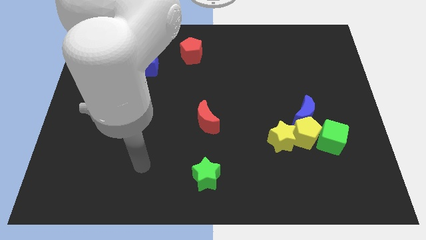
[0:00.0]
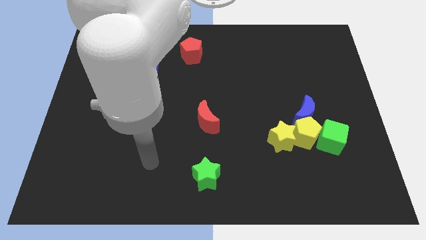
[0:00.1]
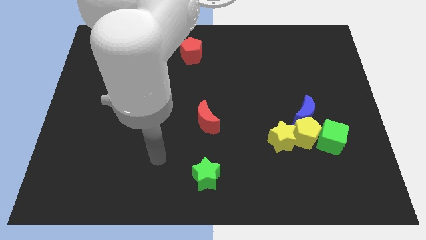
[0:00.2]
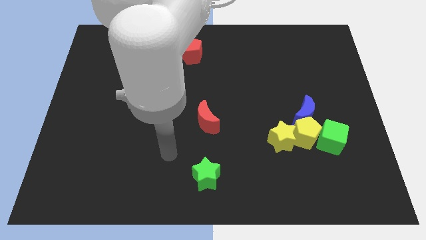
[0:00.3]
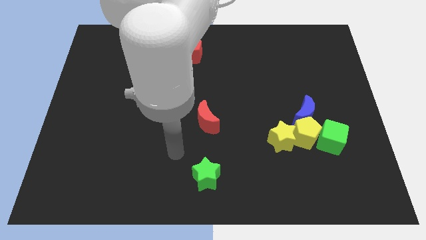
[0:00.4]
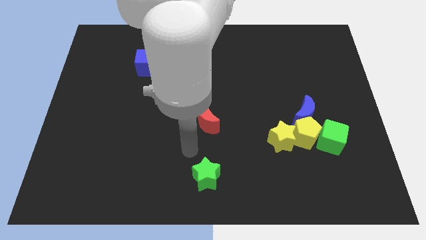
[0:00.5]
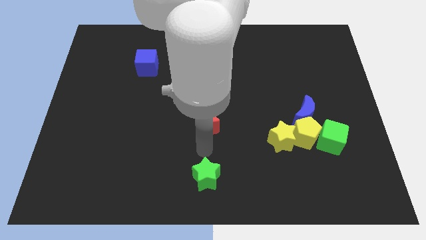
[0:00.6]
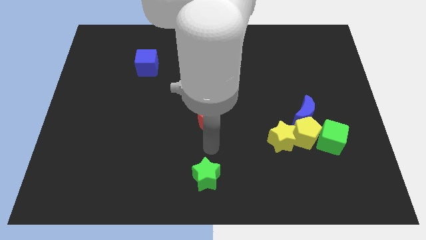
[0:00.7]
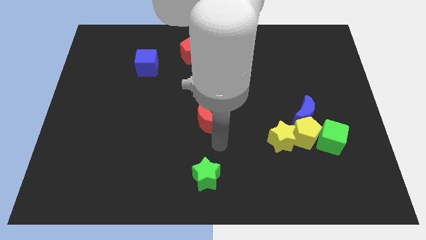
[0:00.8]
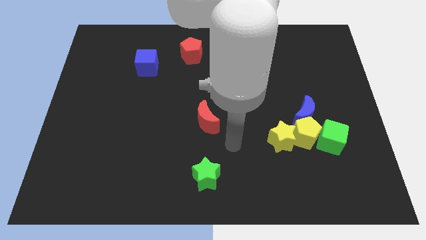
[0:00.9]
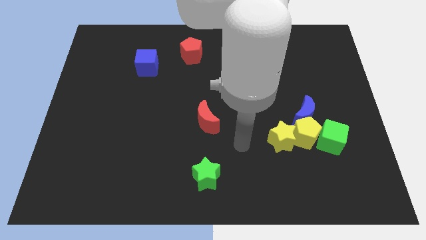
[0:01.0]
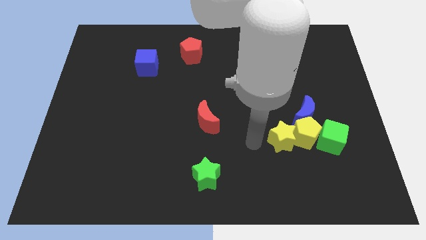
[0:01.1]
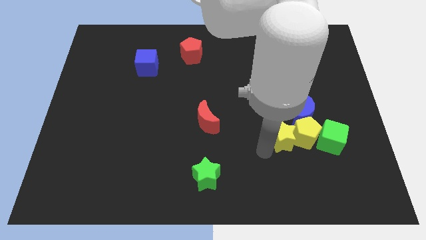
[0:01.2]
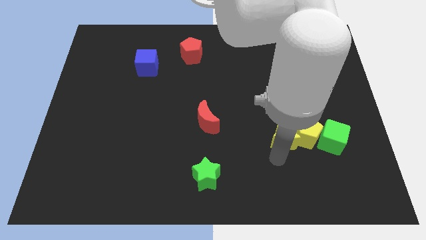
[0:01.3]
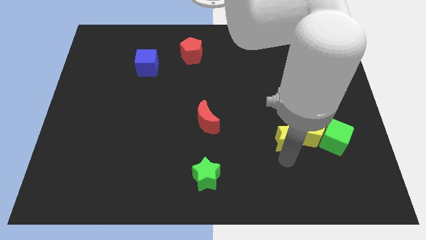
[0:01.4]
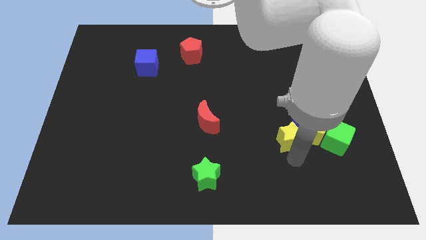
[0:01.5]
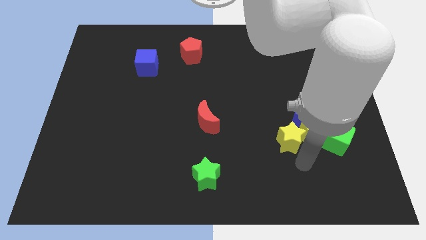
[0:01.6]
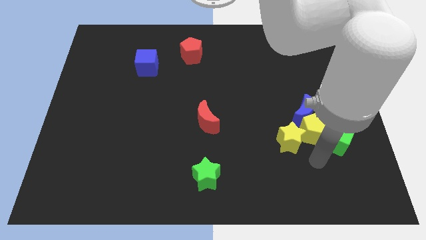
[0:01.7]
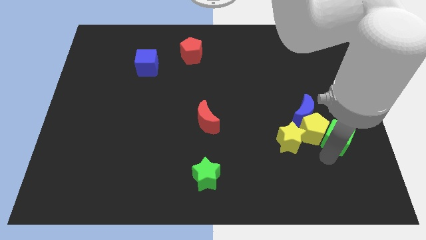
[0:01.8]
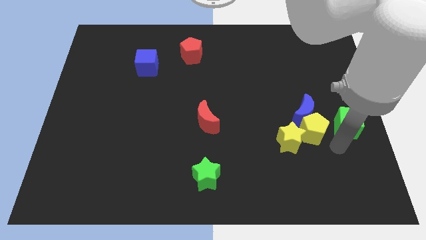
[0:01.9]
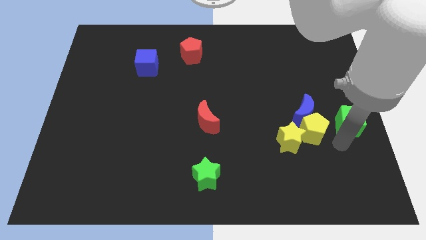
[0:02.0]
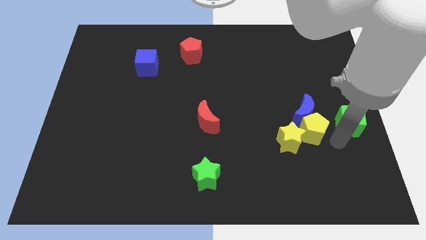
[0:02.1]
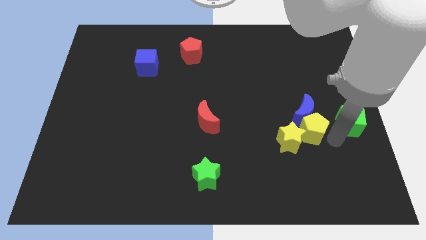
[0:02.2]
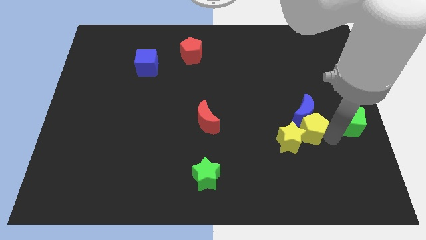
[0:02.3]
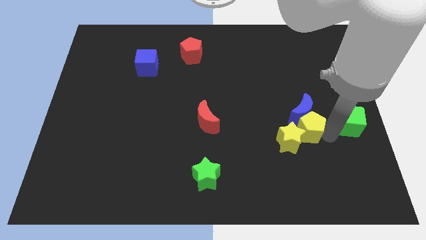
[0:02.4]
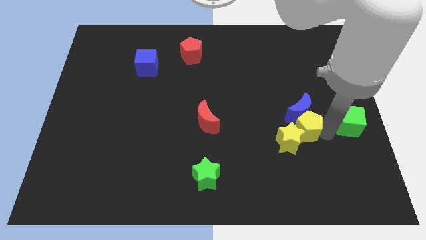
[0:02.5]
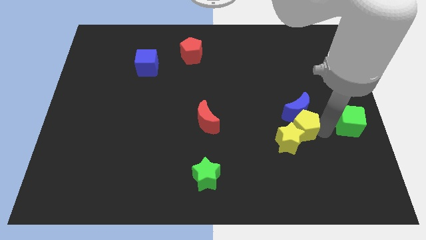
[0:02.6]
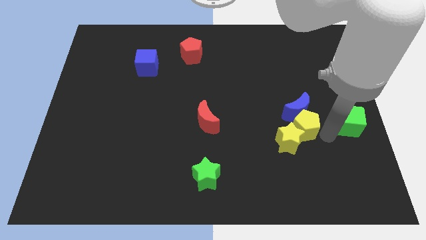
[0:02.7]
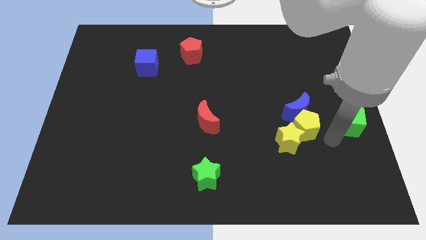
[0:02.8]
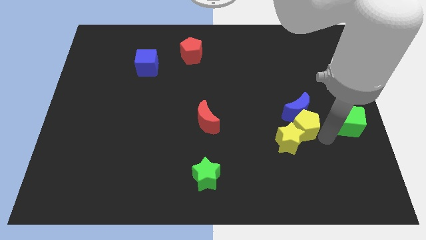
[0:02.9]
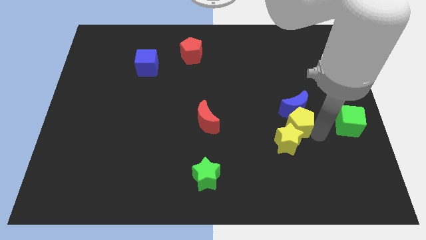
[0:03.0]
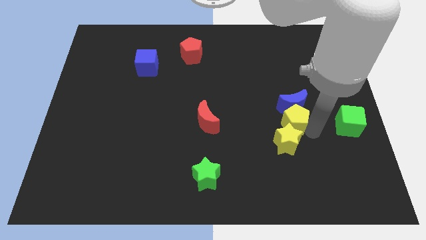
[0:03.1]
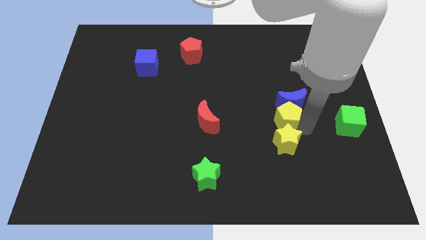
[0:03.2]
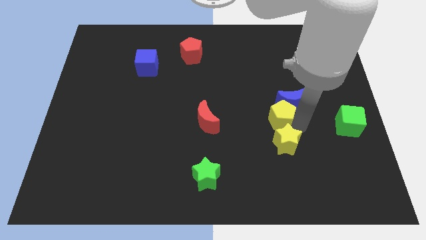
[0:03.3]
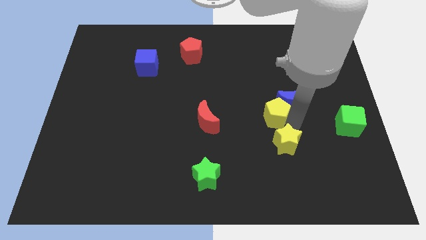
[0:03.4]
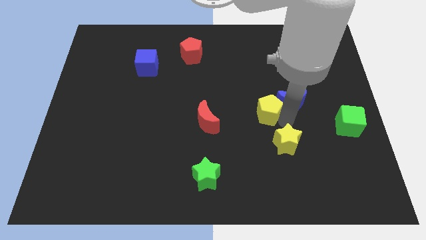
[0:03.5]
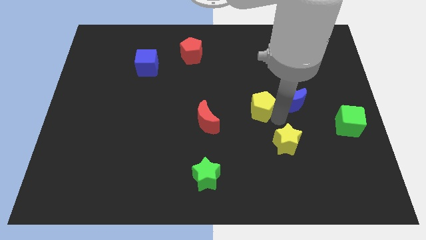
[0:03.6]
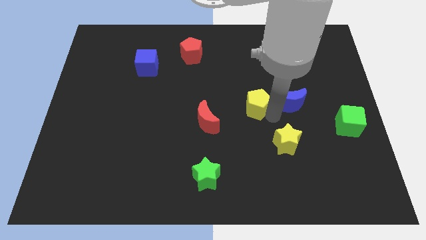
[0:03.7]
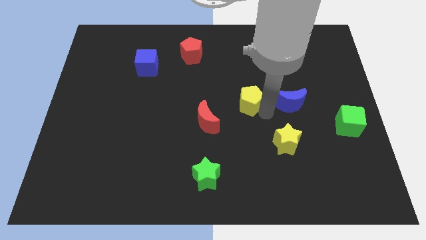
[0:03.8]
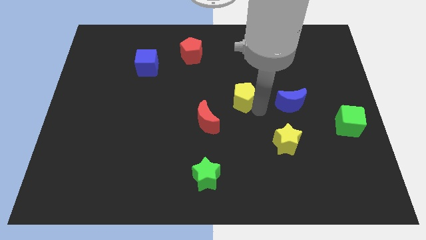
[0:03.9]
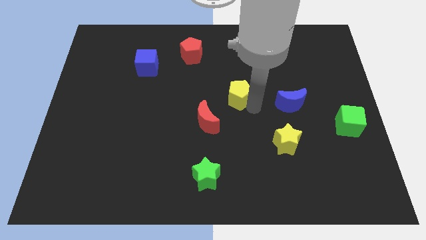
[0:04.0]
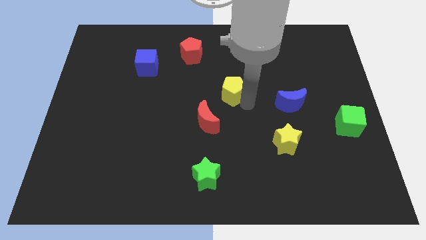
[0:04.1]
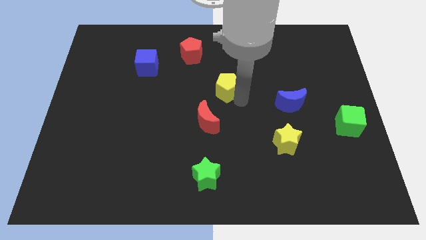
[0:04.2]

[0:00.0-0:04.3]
slide the yellow pentagon up and left

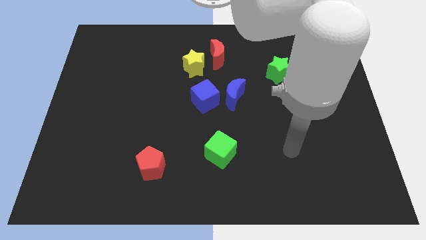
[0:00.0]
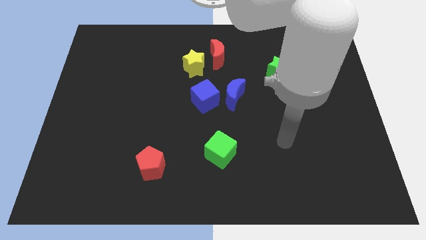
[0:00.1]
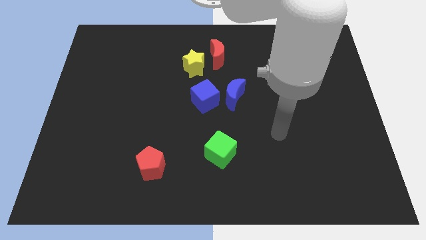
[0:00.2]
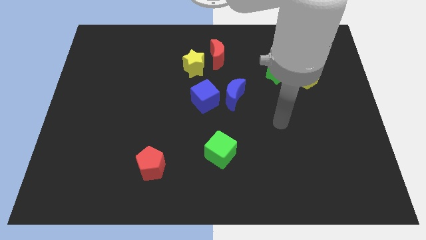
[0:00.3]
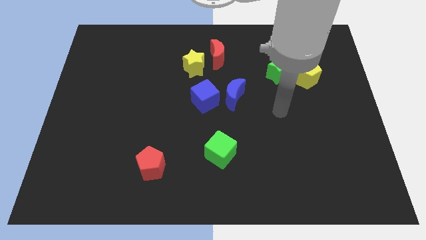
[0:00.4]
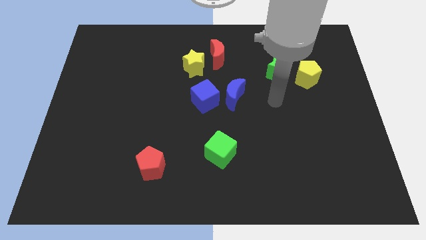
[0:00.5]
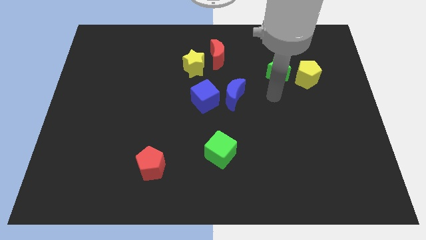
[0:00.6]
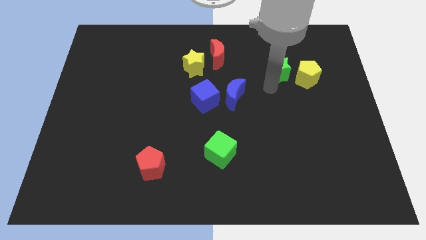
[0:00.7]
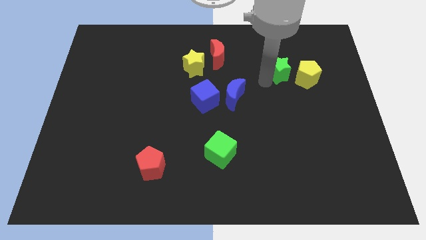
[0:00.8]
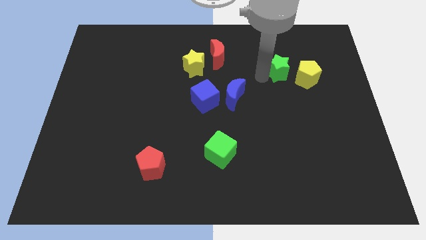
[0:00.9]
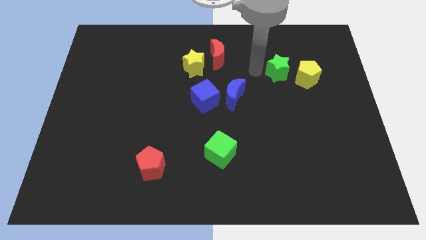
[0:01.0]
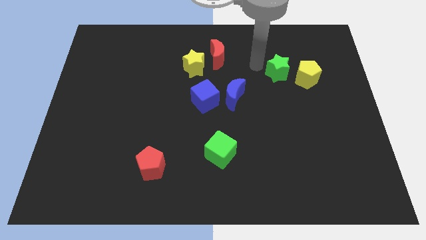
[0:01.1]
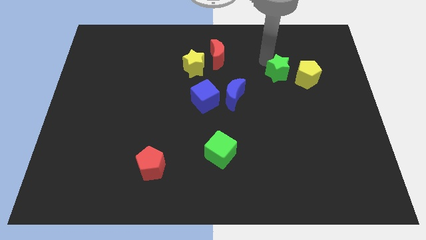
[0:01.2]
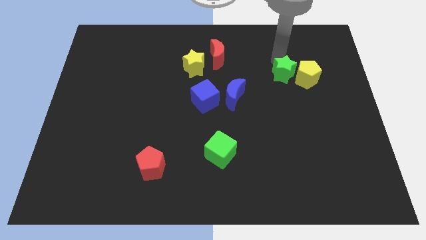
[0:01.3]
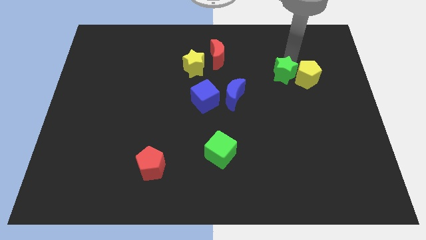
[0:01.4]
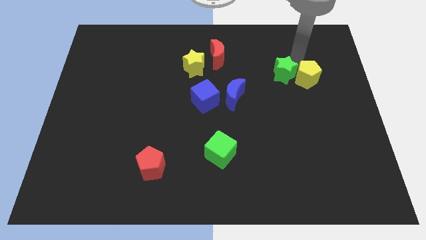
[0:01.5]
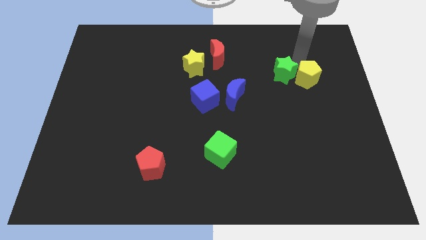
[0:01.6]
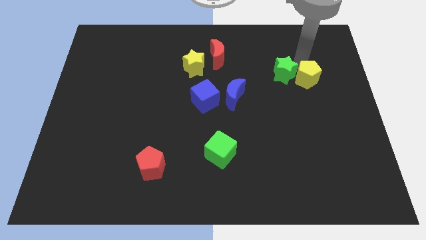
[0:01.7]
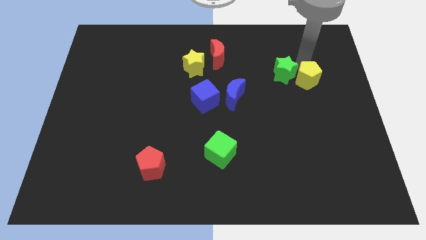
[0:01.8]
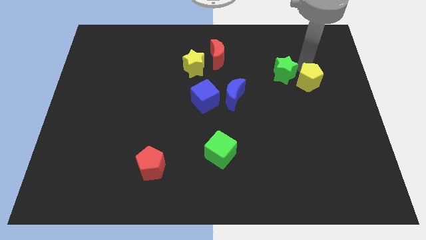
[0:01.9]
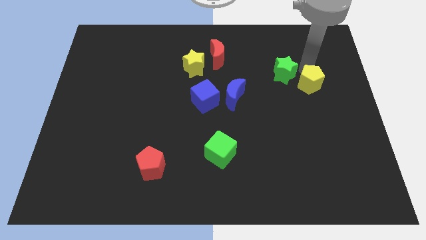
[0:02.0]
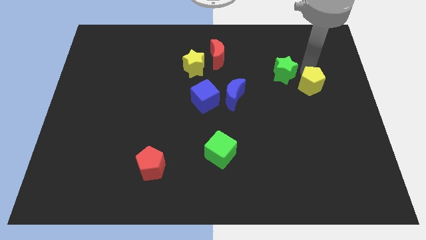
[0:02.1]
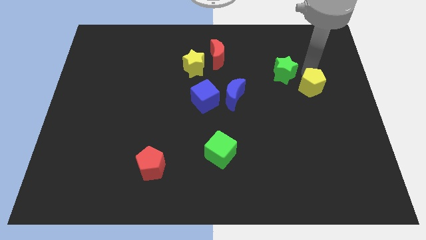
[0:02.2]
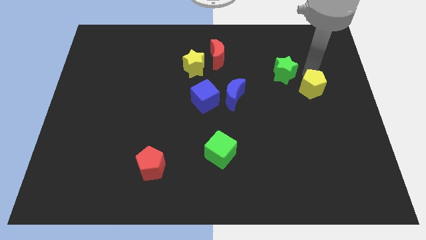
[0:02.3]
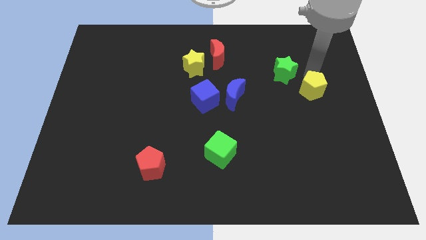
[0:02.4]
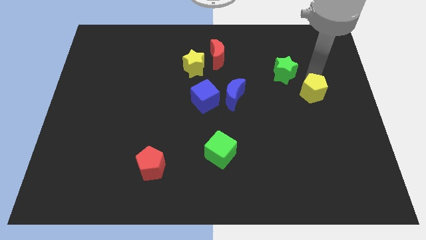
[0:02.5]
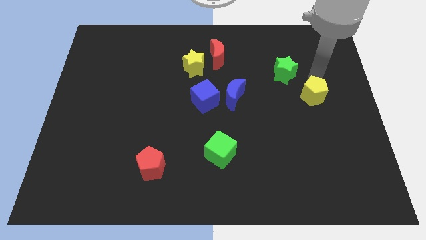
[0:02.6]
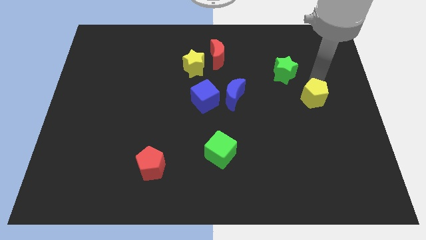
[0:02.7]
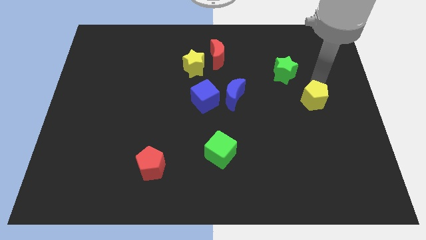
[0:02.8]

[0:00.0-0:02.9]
move the yellow pentagon somewhat down

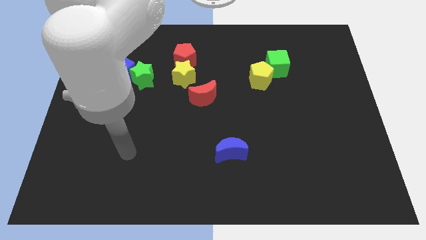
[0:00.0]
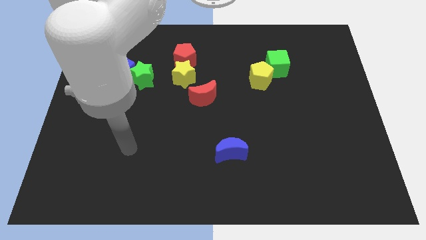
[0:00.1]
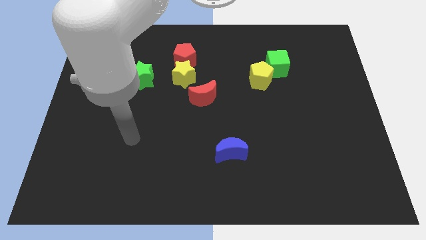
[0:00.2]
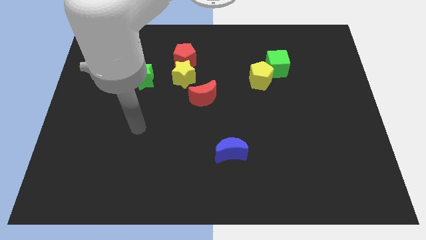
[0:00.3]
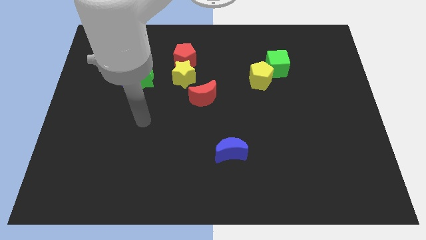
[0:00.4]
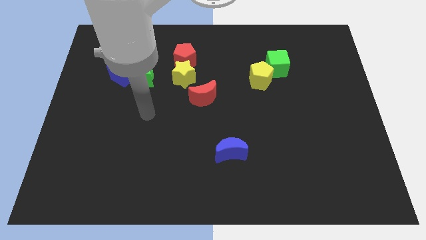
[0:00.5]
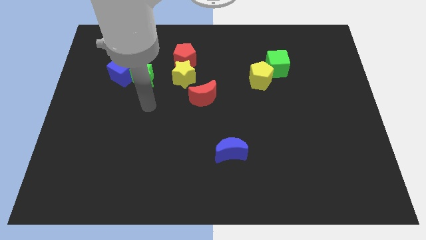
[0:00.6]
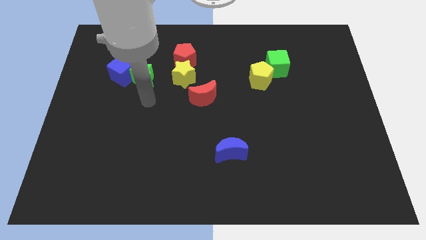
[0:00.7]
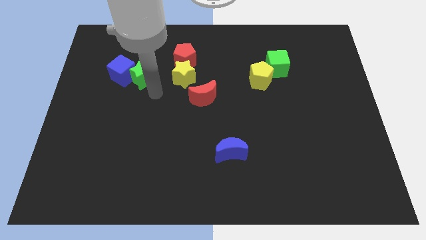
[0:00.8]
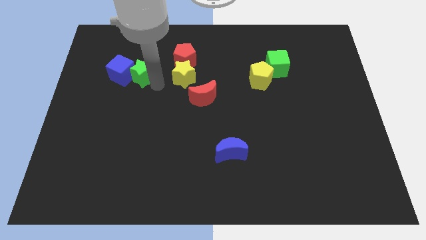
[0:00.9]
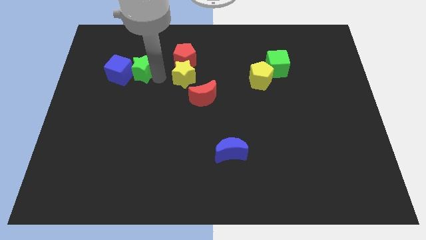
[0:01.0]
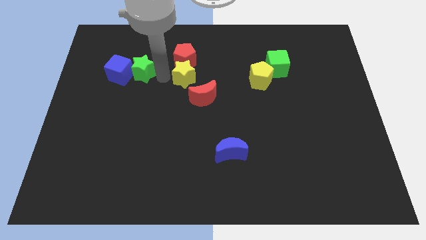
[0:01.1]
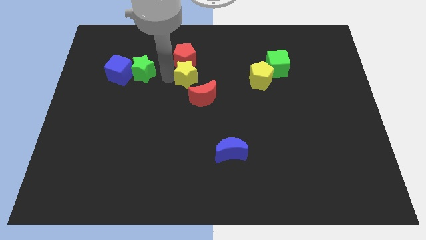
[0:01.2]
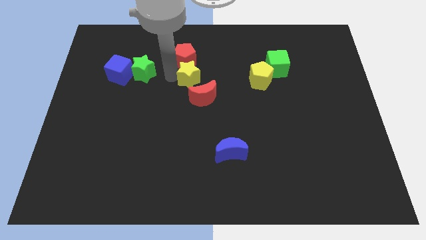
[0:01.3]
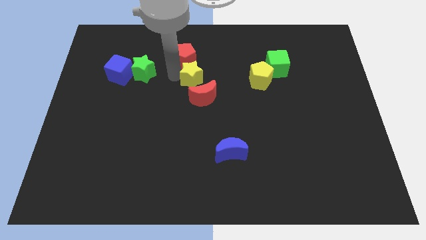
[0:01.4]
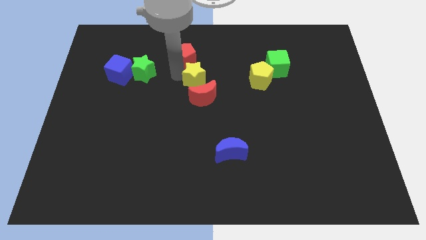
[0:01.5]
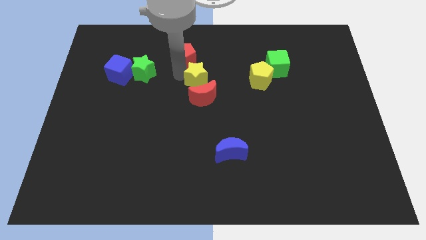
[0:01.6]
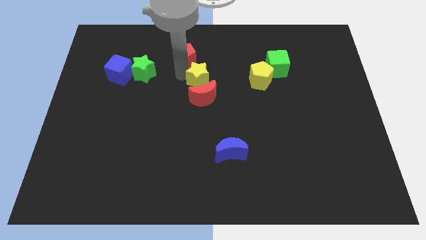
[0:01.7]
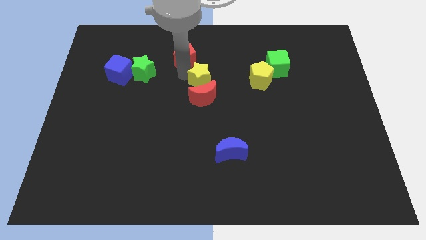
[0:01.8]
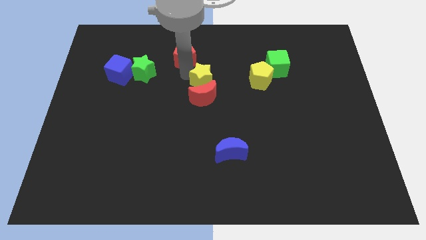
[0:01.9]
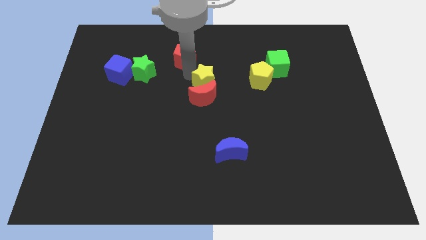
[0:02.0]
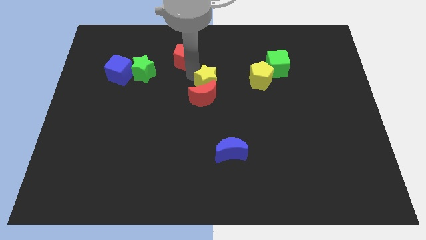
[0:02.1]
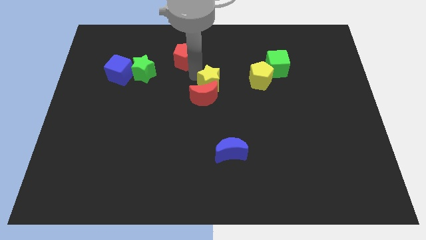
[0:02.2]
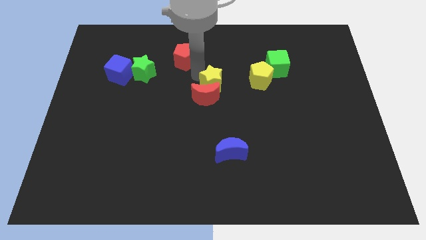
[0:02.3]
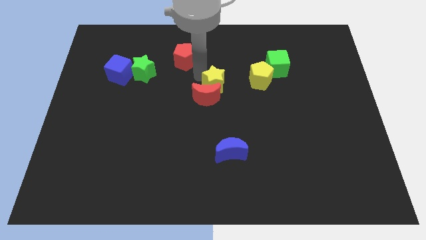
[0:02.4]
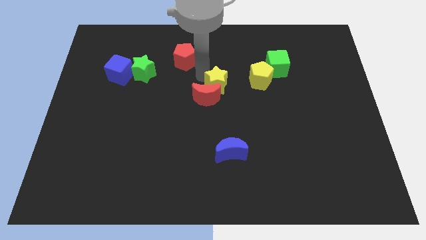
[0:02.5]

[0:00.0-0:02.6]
slightly push the yellow star downwards and then to the right
